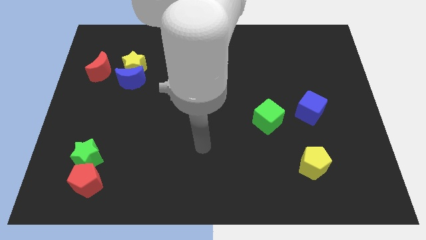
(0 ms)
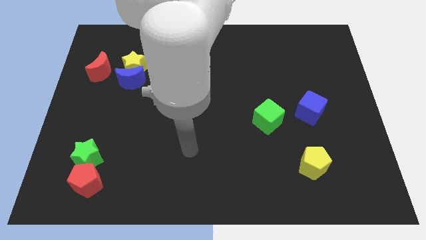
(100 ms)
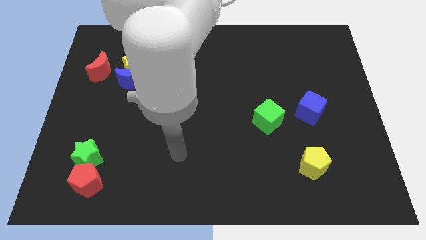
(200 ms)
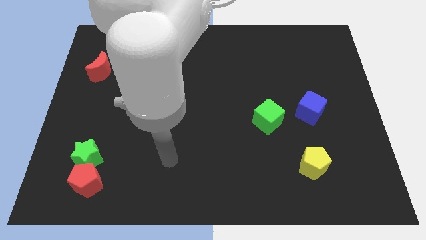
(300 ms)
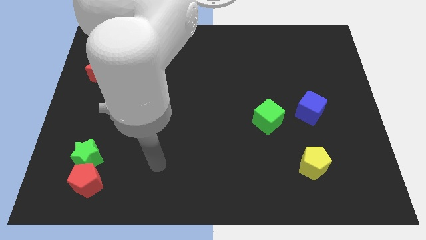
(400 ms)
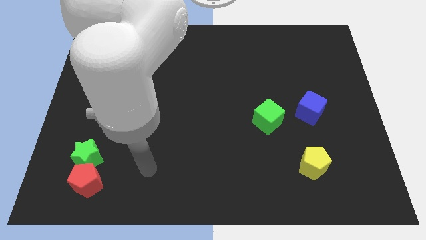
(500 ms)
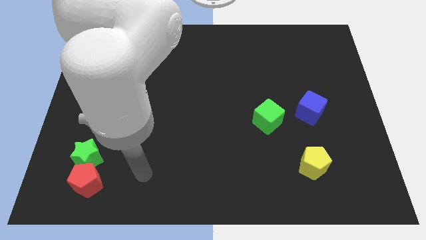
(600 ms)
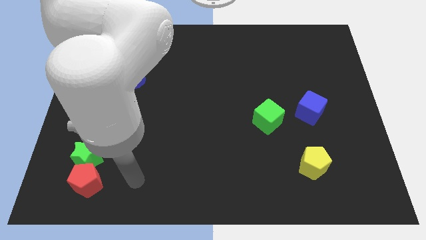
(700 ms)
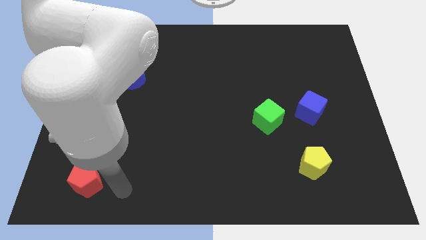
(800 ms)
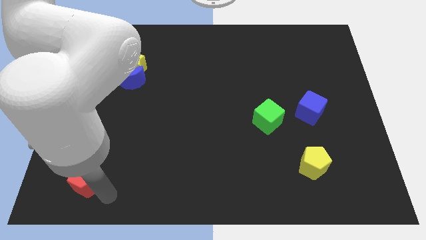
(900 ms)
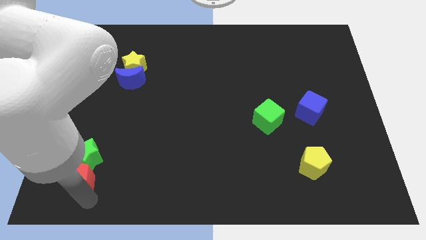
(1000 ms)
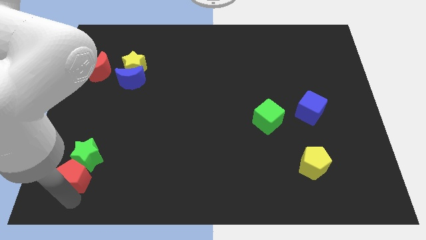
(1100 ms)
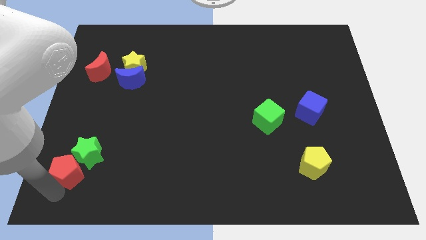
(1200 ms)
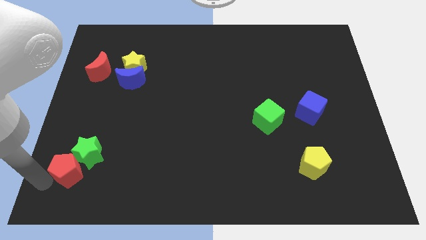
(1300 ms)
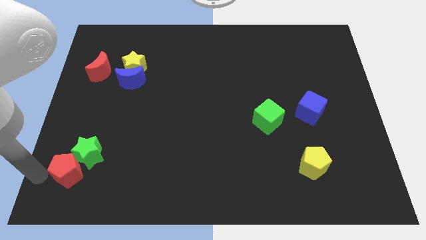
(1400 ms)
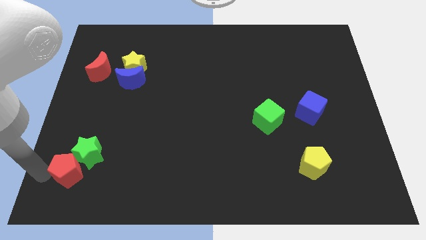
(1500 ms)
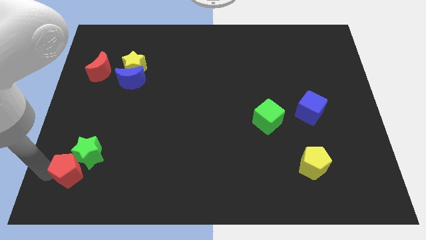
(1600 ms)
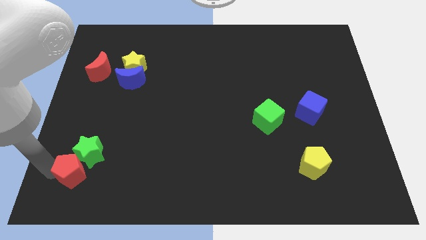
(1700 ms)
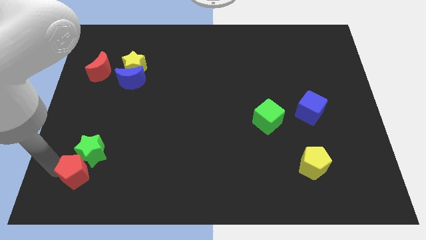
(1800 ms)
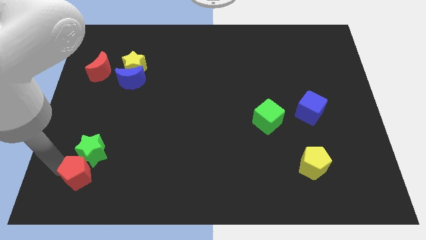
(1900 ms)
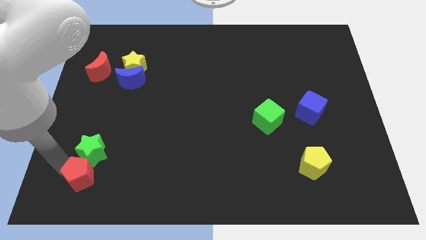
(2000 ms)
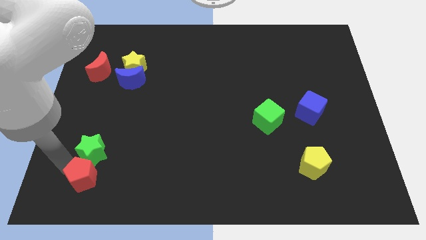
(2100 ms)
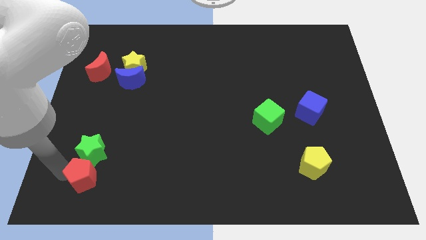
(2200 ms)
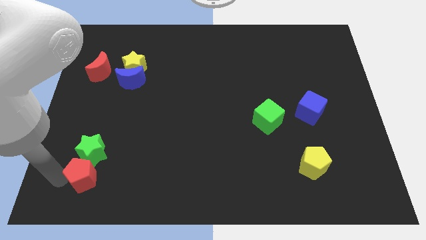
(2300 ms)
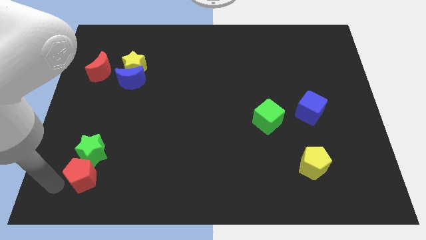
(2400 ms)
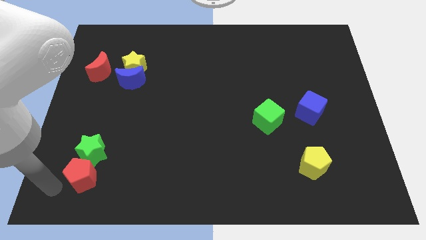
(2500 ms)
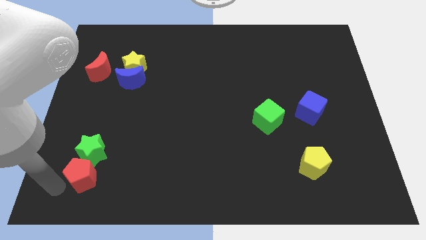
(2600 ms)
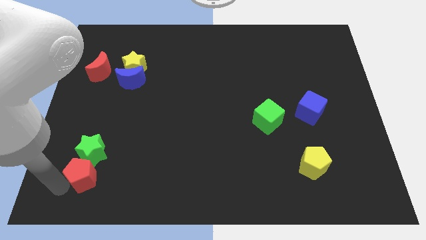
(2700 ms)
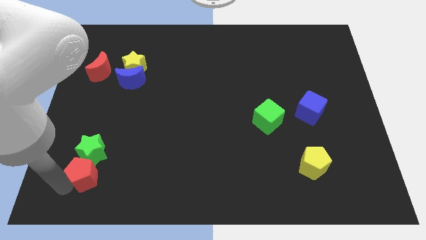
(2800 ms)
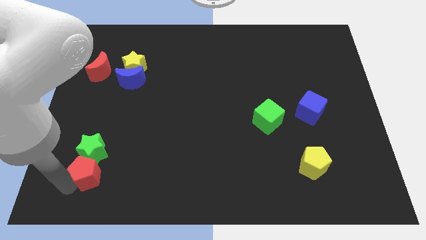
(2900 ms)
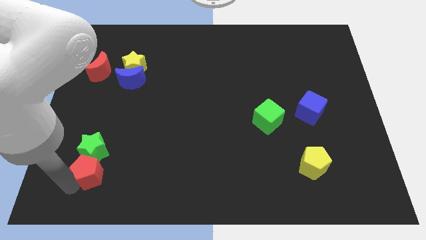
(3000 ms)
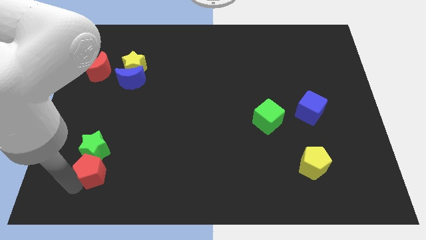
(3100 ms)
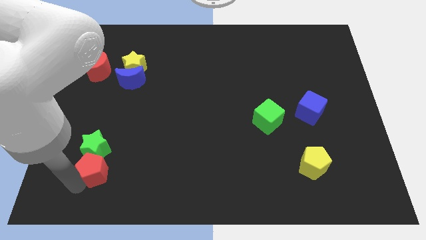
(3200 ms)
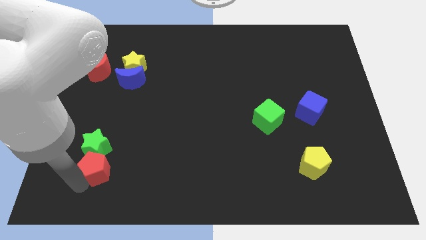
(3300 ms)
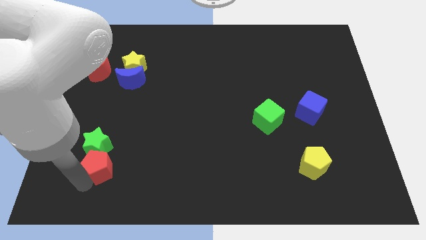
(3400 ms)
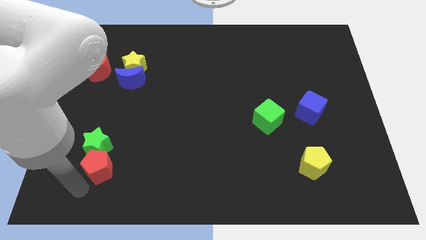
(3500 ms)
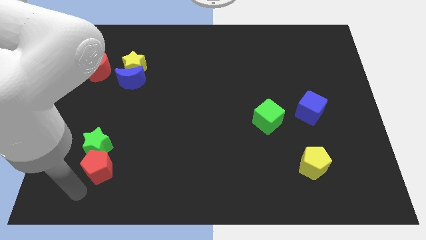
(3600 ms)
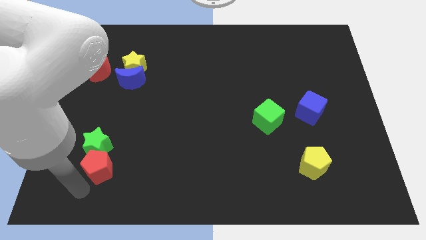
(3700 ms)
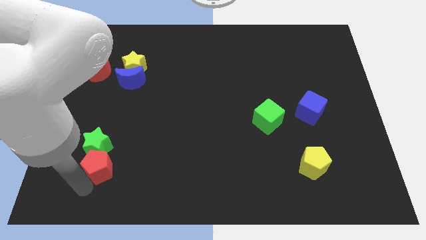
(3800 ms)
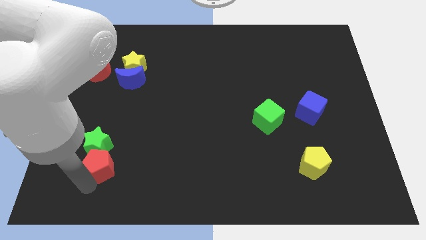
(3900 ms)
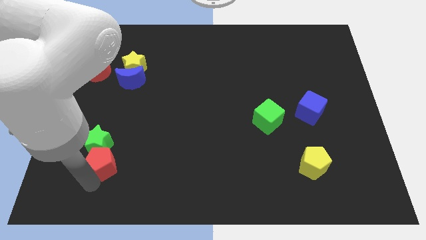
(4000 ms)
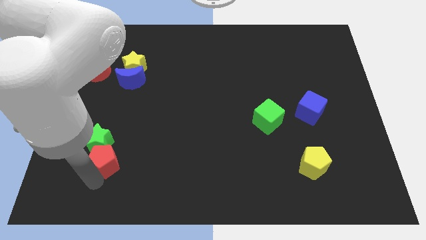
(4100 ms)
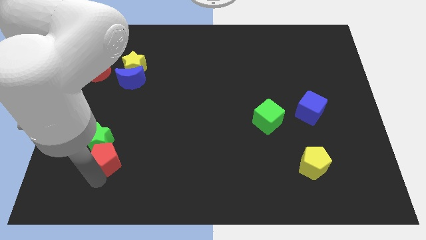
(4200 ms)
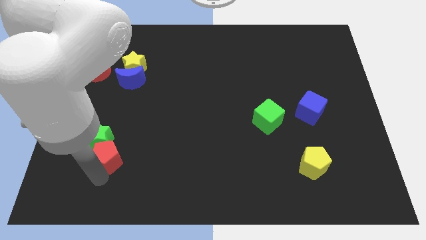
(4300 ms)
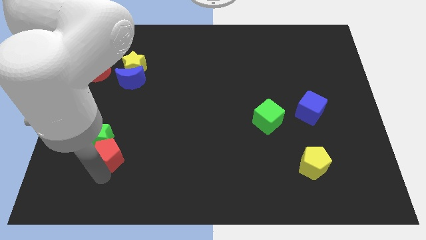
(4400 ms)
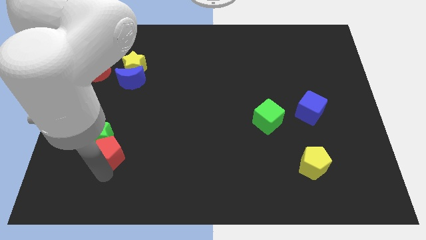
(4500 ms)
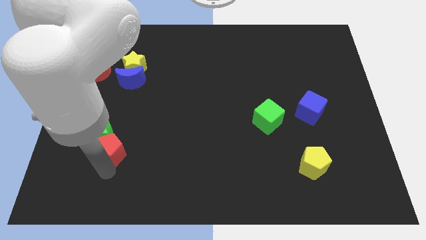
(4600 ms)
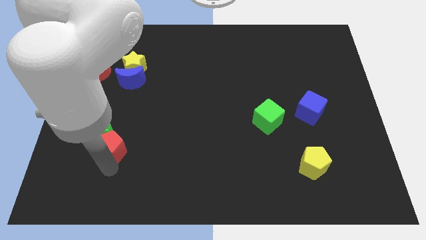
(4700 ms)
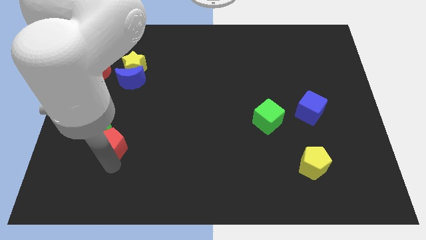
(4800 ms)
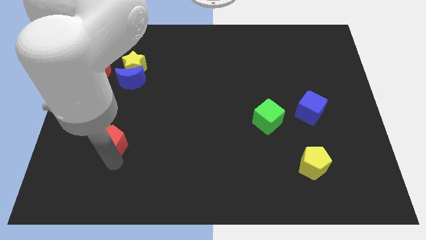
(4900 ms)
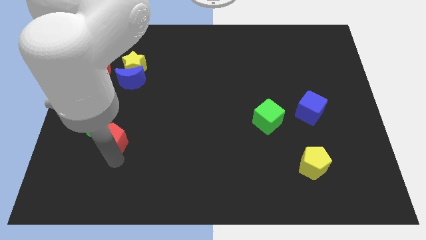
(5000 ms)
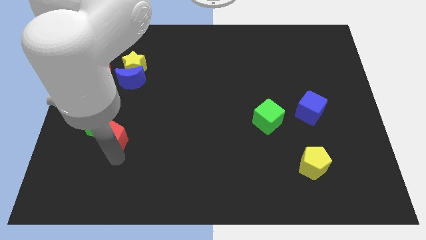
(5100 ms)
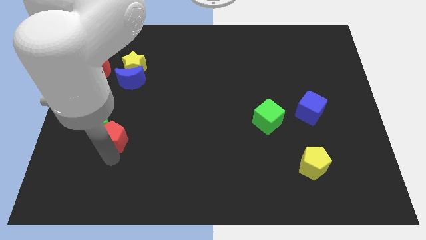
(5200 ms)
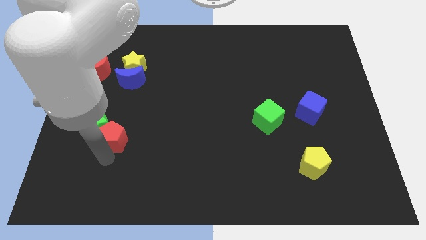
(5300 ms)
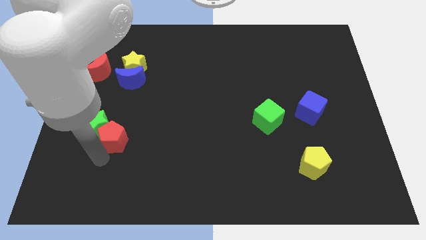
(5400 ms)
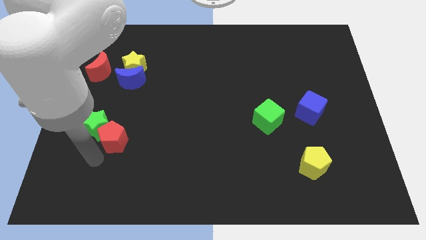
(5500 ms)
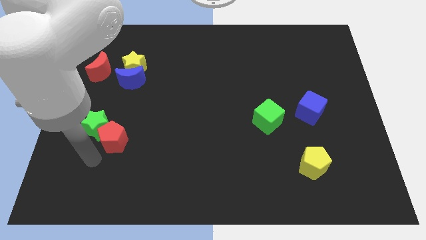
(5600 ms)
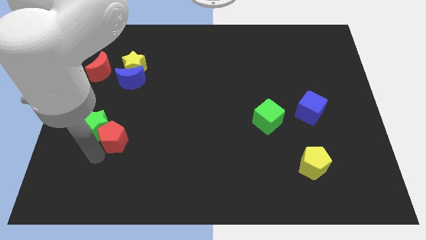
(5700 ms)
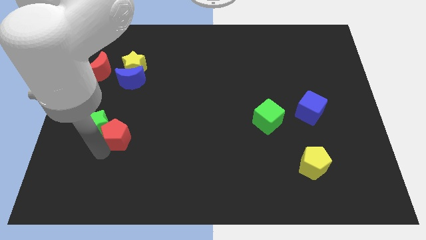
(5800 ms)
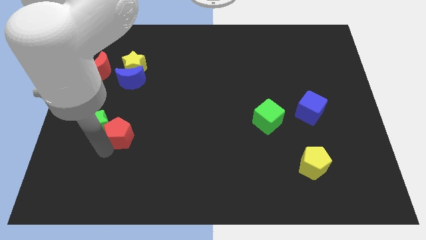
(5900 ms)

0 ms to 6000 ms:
put the red pentagon to the bottom side of the blue moon

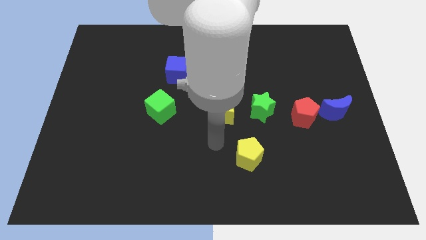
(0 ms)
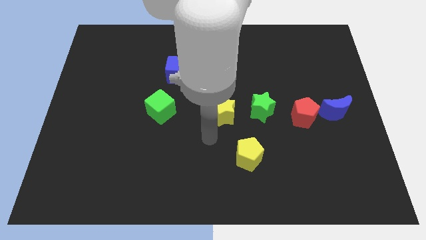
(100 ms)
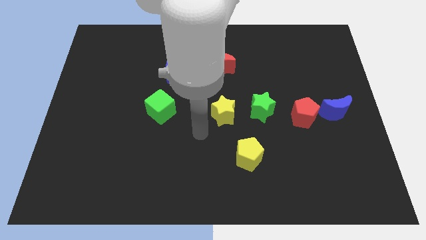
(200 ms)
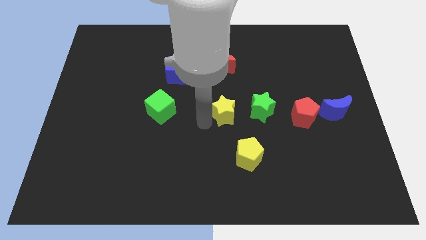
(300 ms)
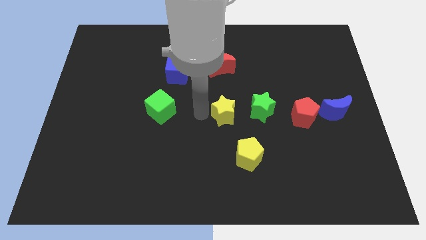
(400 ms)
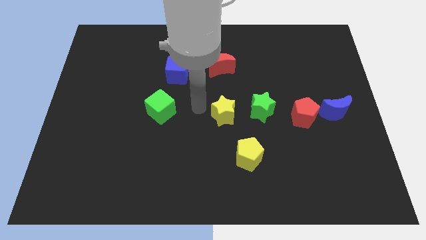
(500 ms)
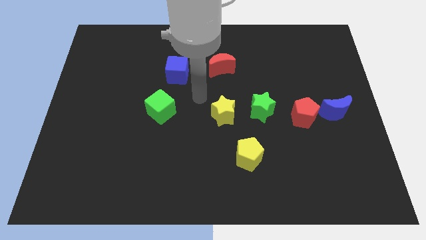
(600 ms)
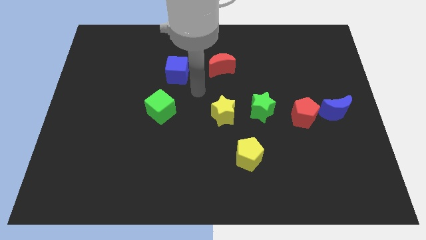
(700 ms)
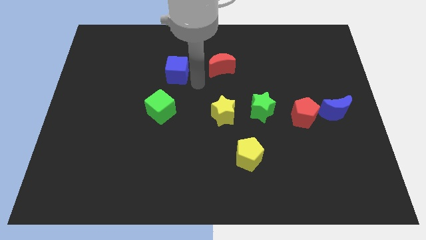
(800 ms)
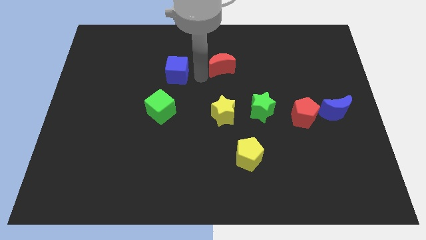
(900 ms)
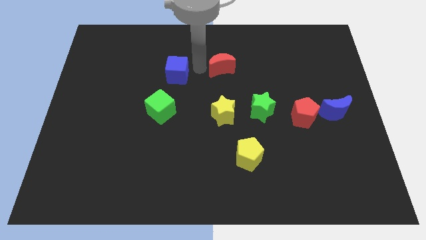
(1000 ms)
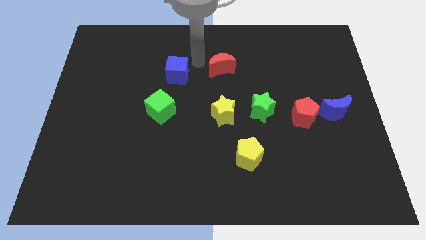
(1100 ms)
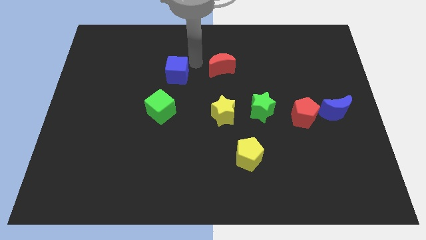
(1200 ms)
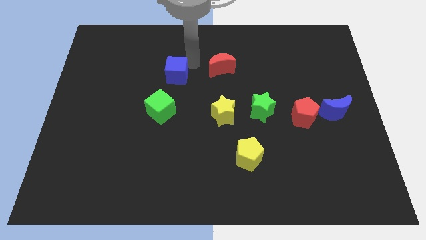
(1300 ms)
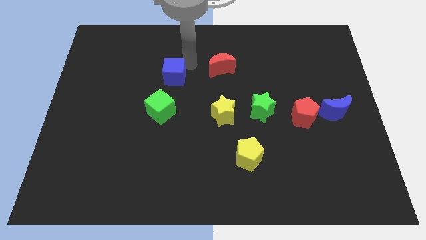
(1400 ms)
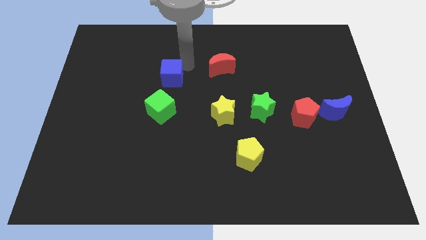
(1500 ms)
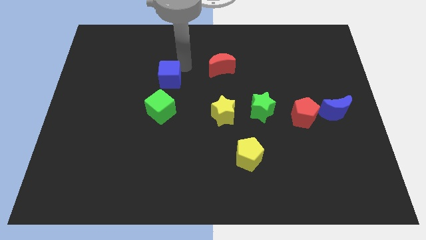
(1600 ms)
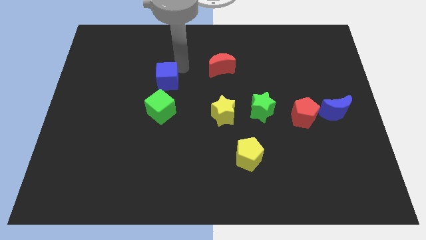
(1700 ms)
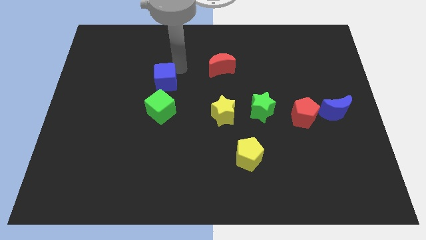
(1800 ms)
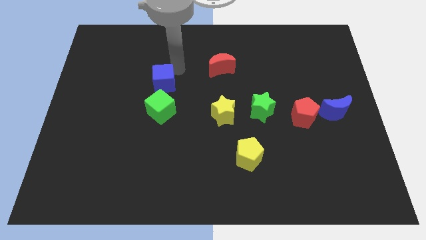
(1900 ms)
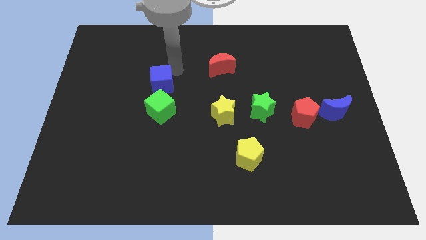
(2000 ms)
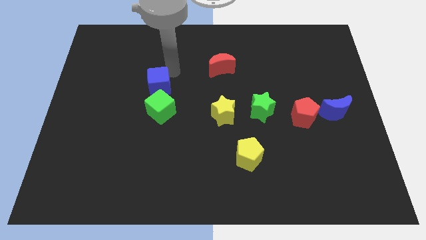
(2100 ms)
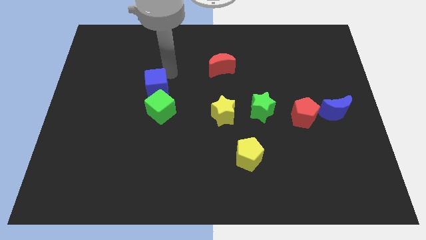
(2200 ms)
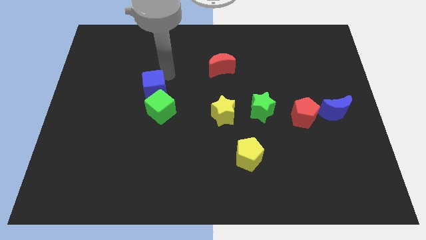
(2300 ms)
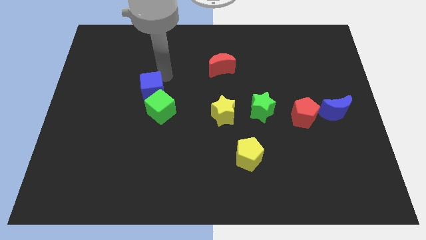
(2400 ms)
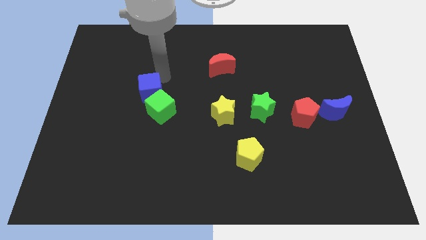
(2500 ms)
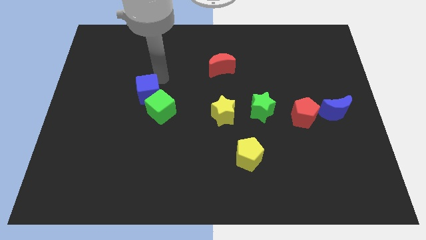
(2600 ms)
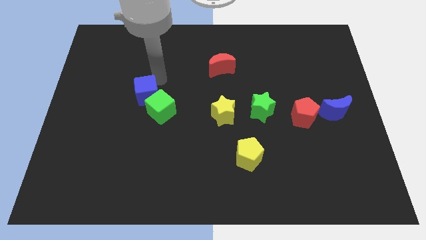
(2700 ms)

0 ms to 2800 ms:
push the blue cube to the left side of the green cube
